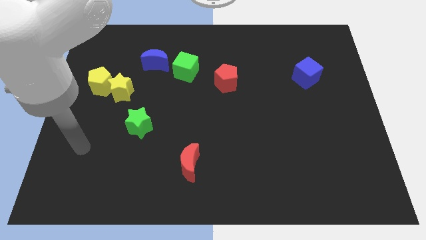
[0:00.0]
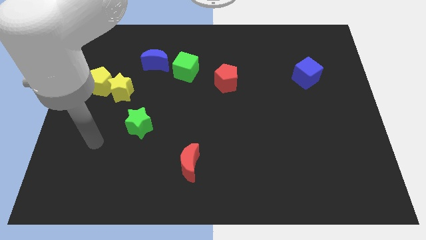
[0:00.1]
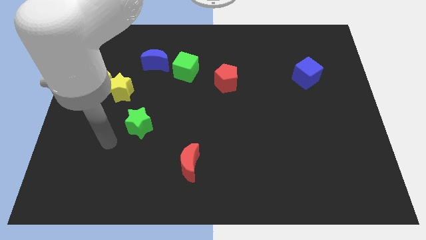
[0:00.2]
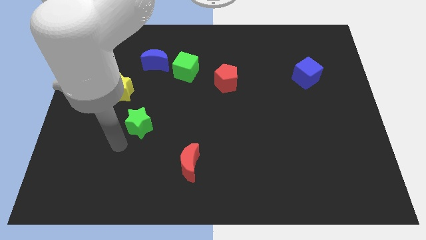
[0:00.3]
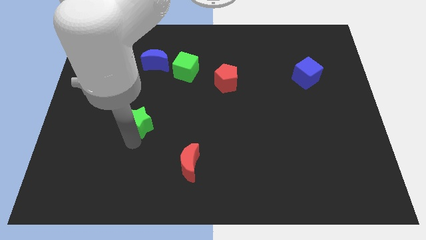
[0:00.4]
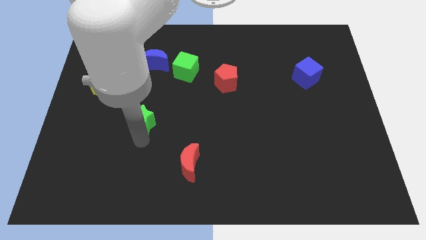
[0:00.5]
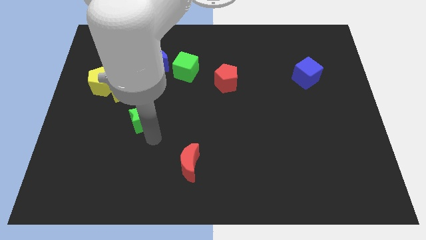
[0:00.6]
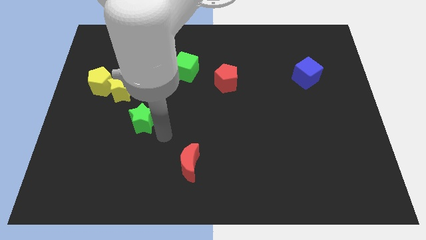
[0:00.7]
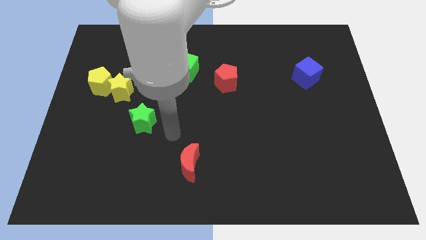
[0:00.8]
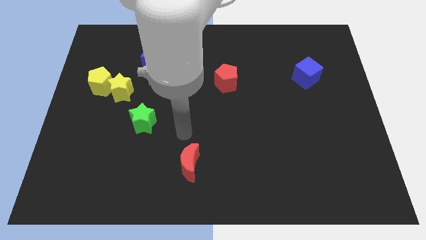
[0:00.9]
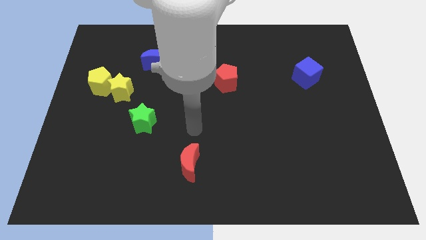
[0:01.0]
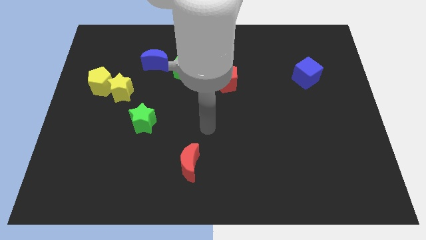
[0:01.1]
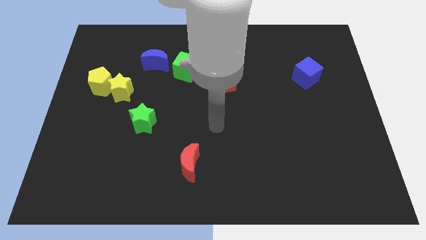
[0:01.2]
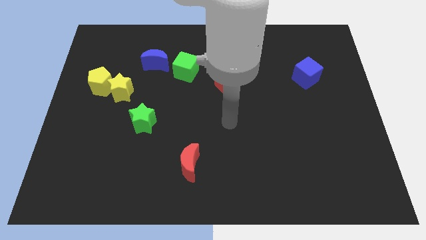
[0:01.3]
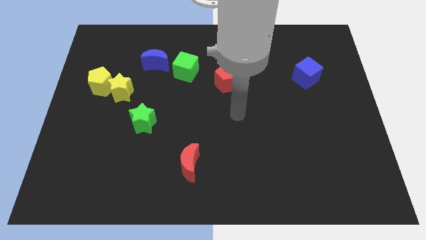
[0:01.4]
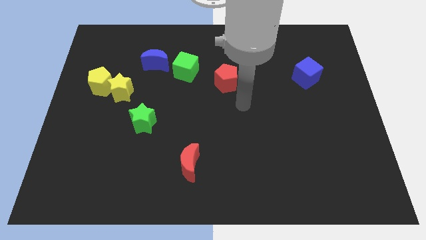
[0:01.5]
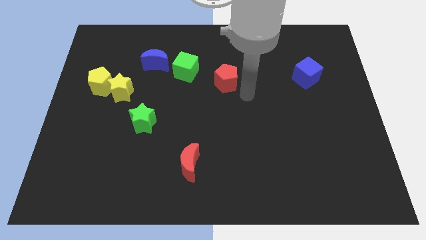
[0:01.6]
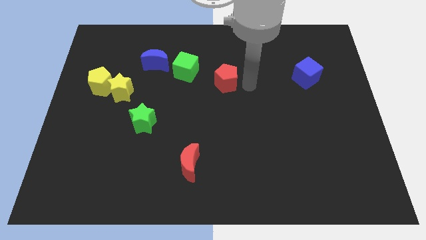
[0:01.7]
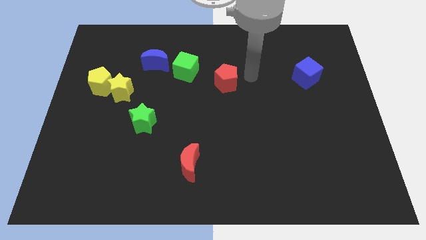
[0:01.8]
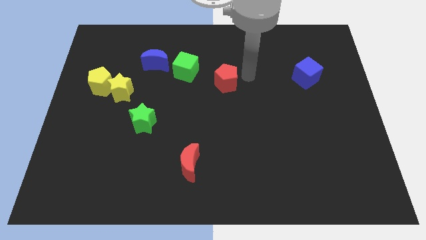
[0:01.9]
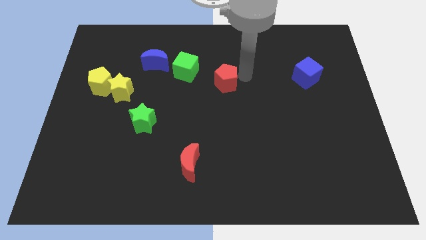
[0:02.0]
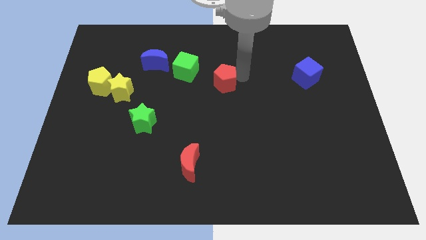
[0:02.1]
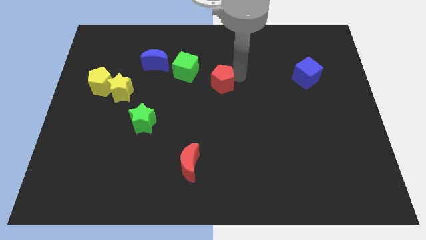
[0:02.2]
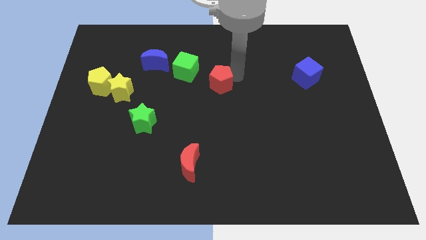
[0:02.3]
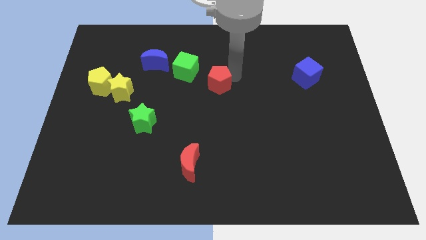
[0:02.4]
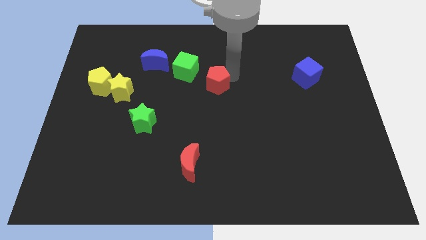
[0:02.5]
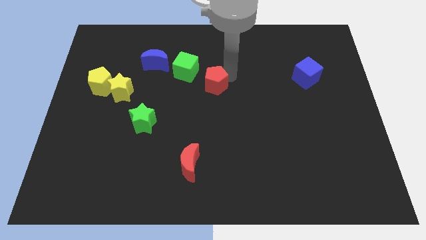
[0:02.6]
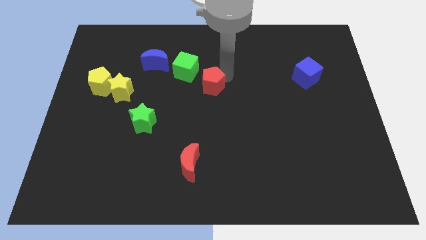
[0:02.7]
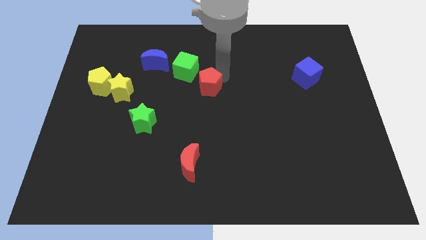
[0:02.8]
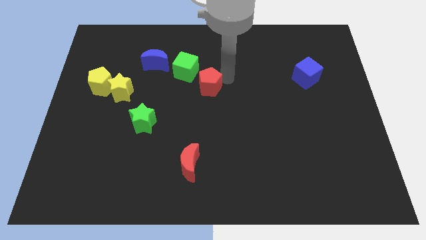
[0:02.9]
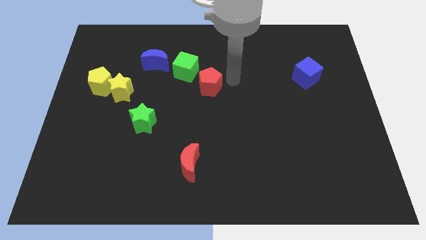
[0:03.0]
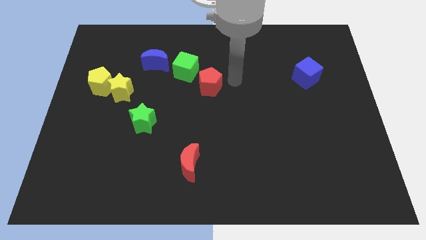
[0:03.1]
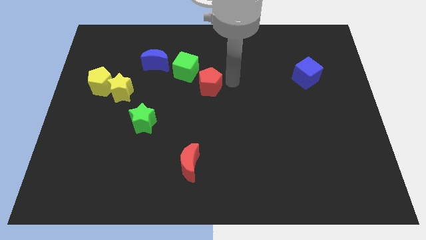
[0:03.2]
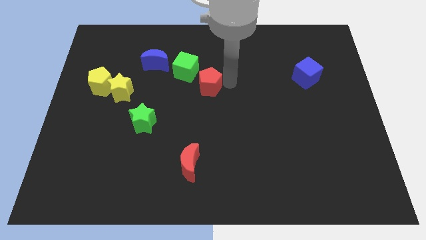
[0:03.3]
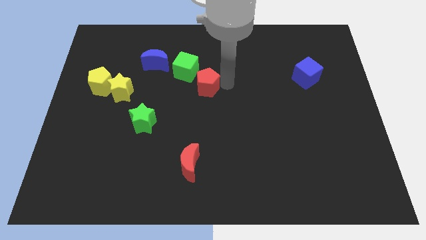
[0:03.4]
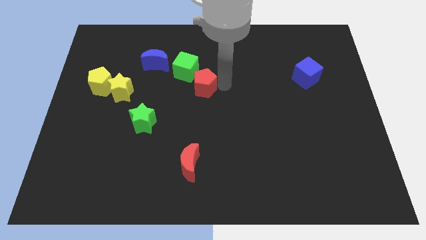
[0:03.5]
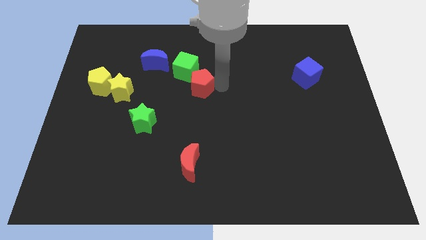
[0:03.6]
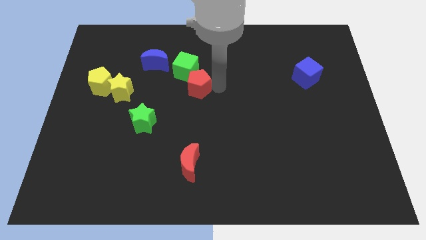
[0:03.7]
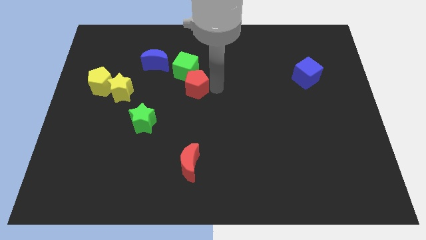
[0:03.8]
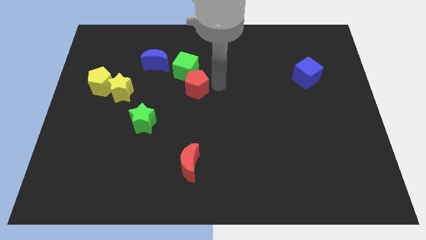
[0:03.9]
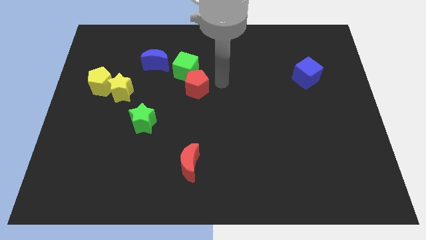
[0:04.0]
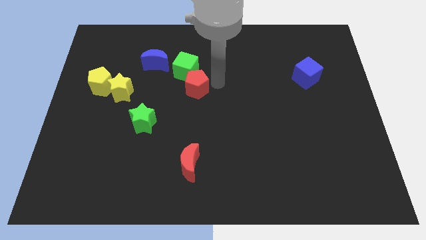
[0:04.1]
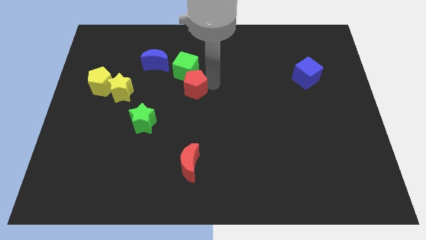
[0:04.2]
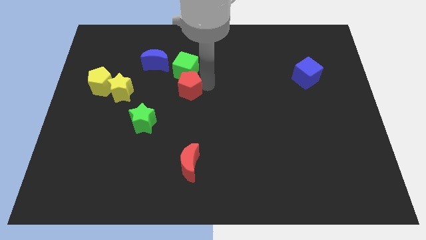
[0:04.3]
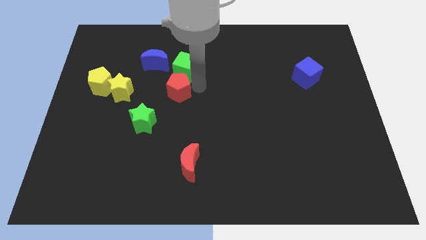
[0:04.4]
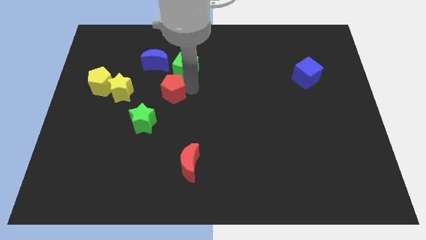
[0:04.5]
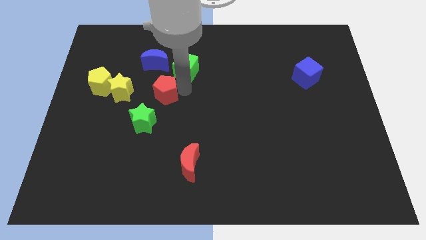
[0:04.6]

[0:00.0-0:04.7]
push the red pentagon to the bottom side of the blue moon

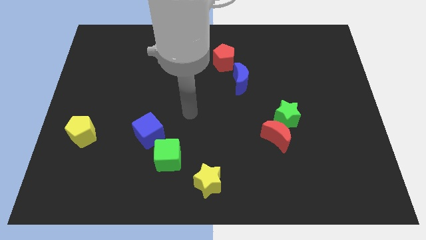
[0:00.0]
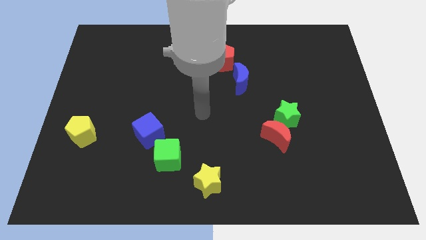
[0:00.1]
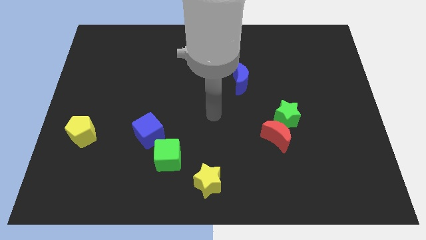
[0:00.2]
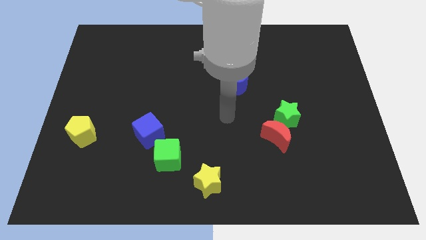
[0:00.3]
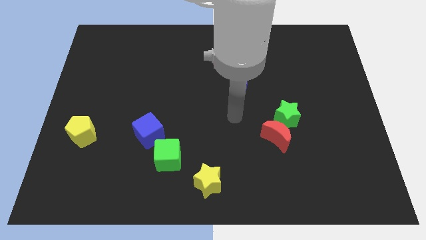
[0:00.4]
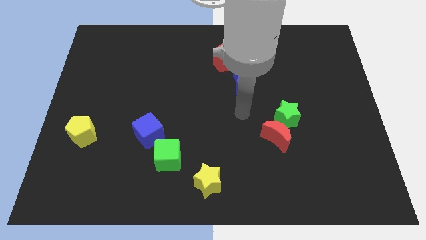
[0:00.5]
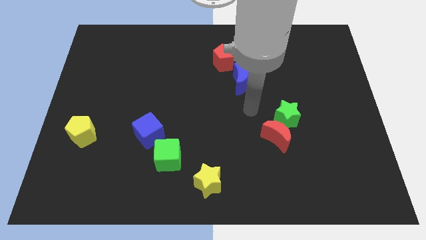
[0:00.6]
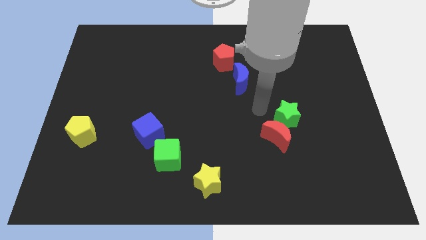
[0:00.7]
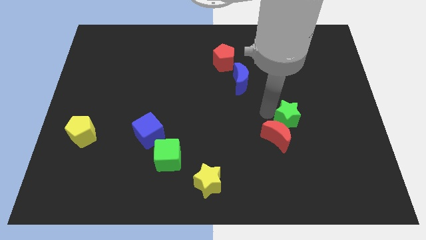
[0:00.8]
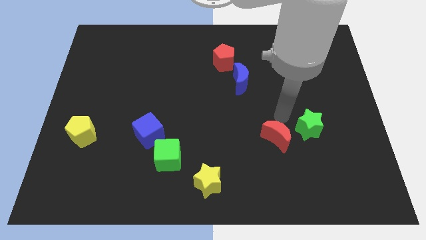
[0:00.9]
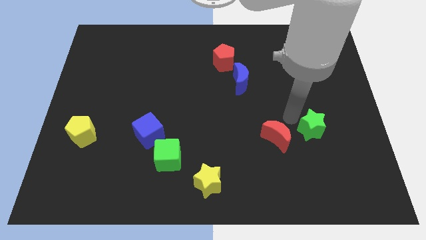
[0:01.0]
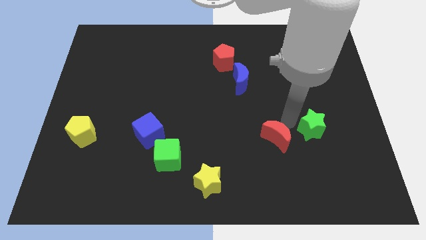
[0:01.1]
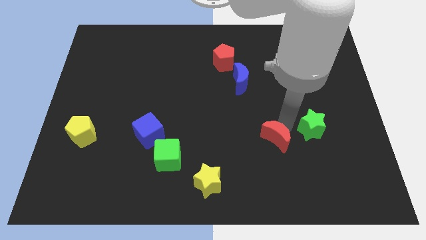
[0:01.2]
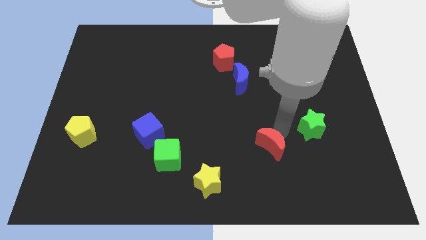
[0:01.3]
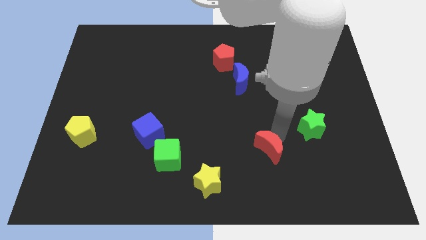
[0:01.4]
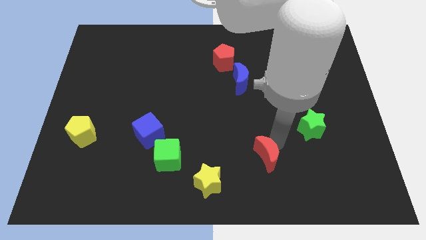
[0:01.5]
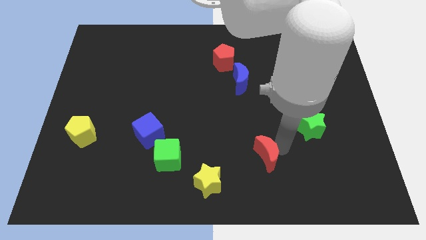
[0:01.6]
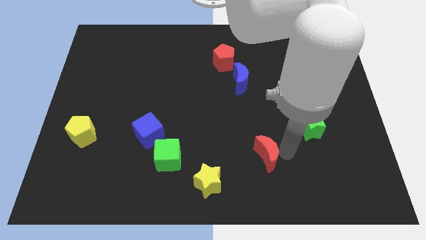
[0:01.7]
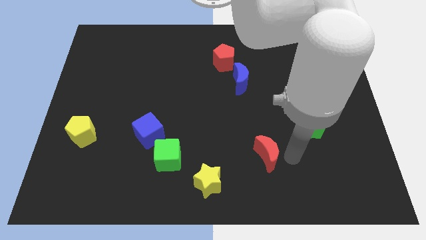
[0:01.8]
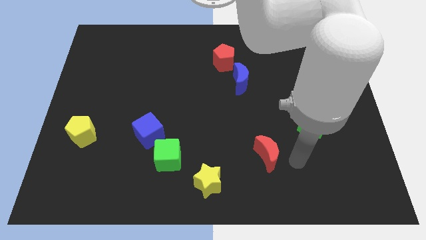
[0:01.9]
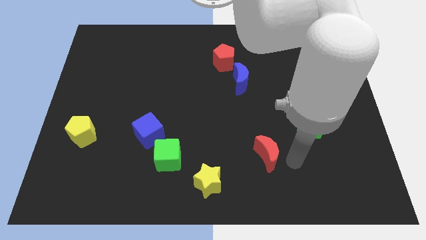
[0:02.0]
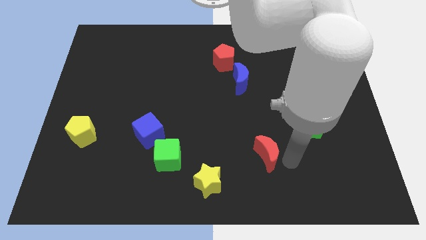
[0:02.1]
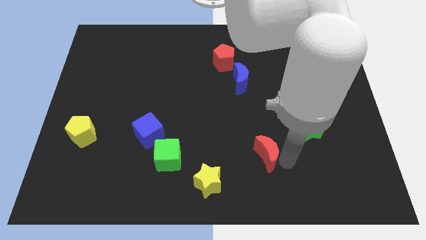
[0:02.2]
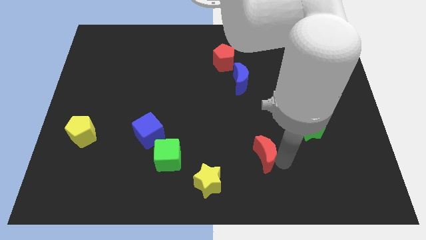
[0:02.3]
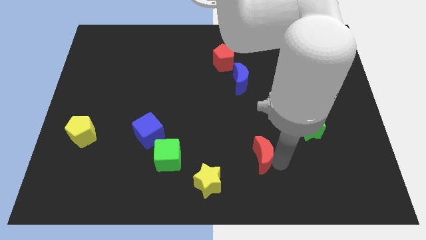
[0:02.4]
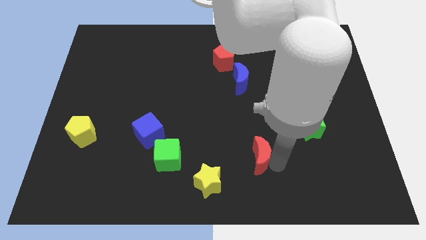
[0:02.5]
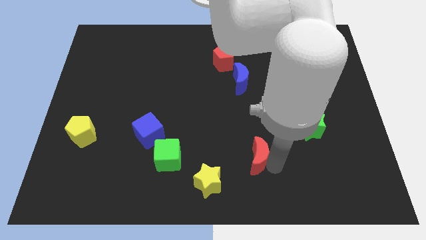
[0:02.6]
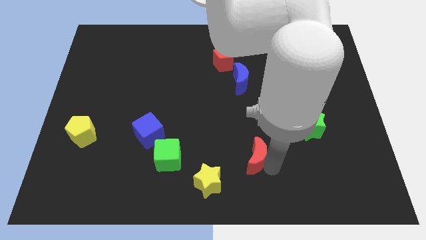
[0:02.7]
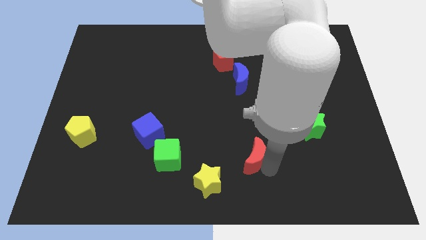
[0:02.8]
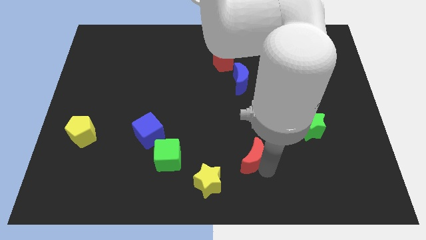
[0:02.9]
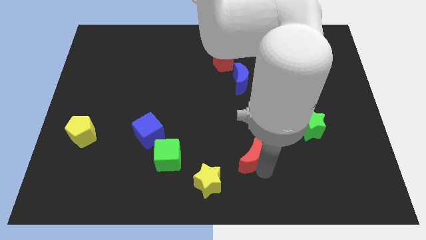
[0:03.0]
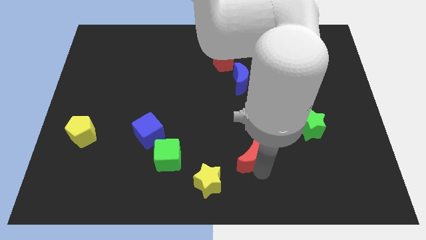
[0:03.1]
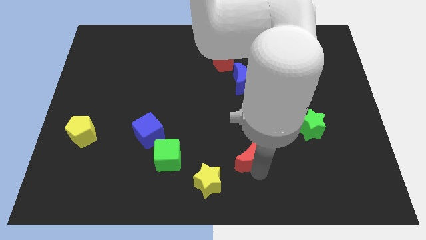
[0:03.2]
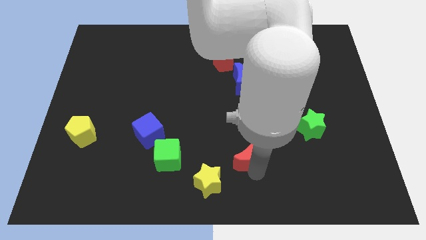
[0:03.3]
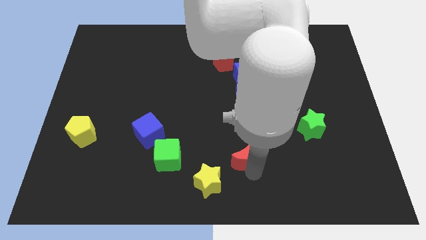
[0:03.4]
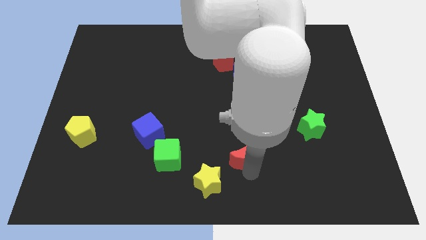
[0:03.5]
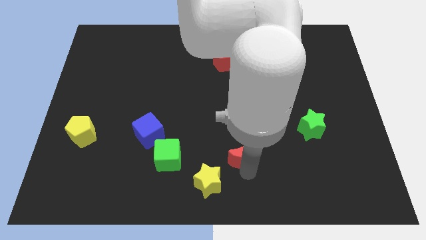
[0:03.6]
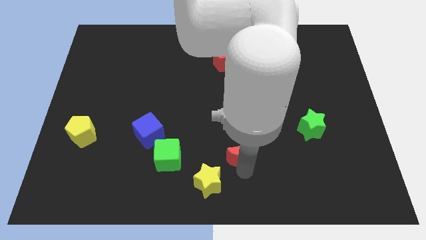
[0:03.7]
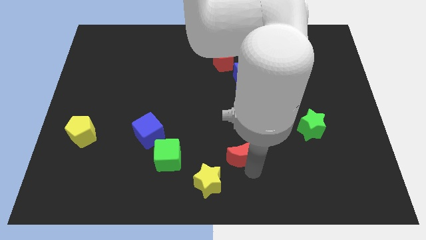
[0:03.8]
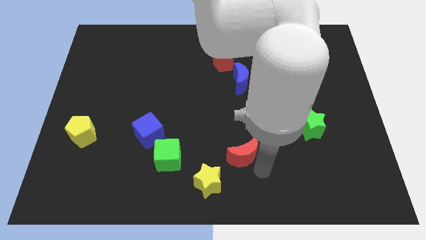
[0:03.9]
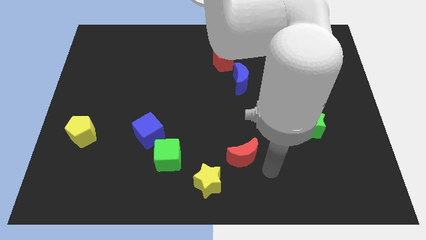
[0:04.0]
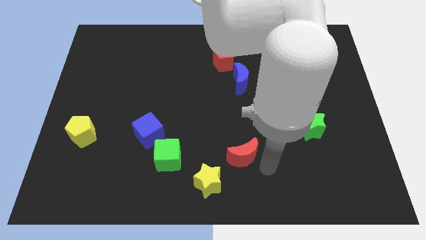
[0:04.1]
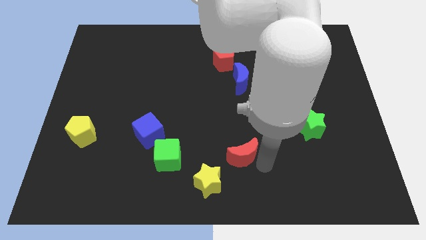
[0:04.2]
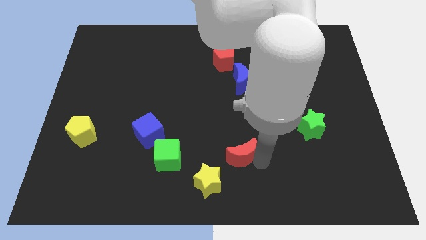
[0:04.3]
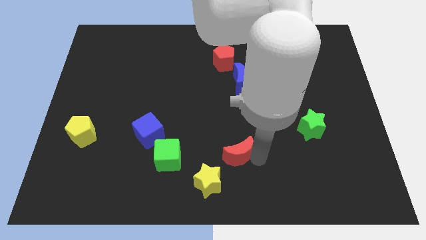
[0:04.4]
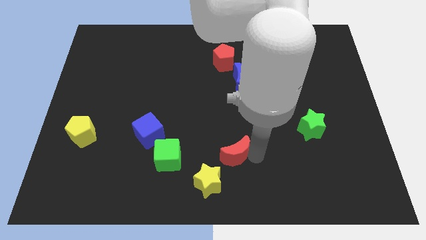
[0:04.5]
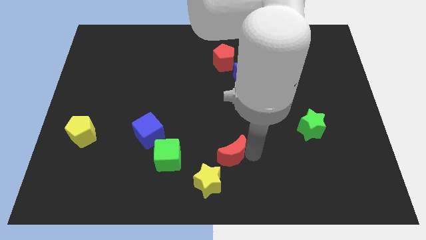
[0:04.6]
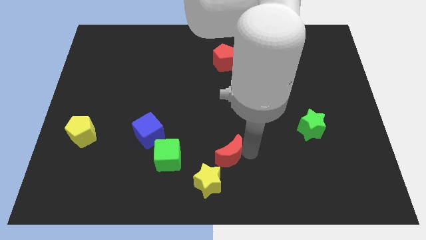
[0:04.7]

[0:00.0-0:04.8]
push the red moon above the yellow star
